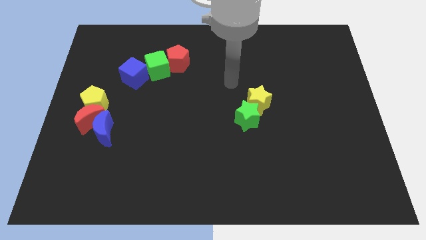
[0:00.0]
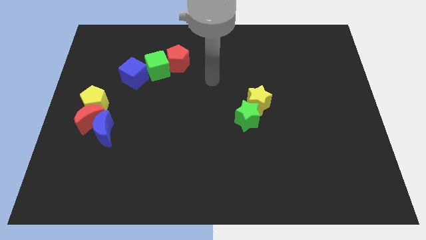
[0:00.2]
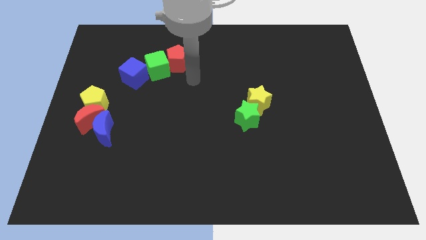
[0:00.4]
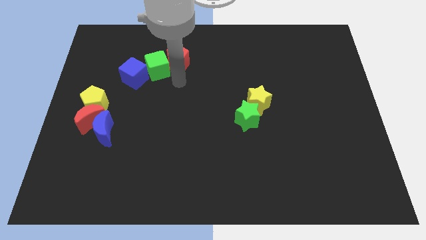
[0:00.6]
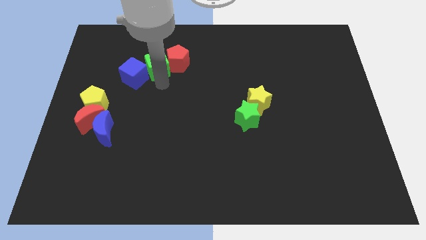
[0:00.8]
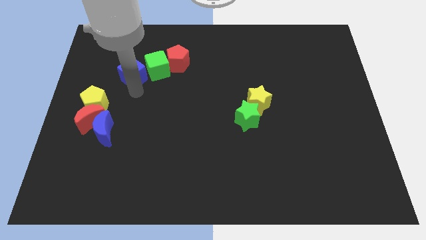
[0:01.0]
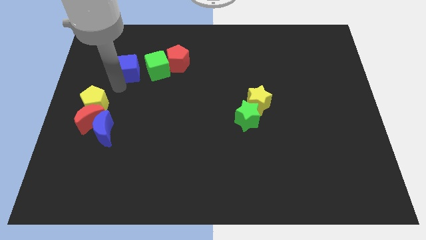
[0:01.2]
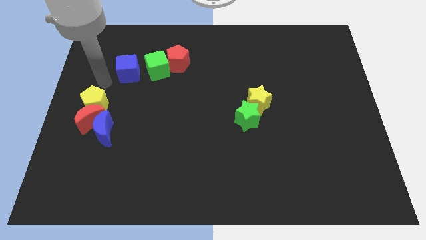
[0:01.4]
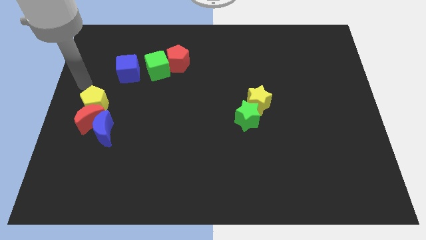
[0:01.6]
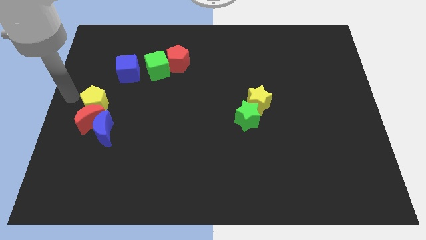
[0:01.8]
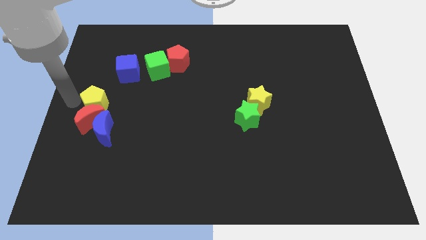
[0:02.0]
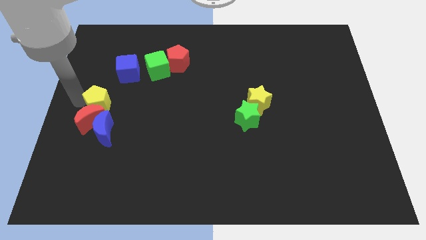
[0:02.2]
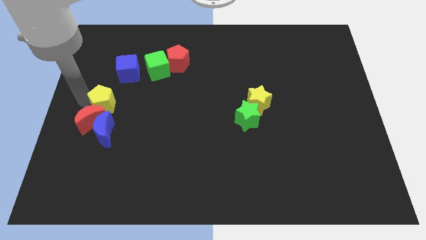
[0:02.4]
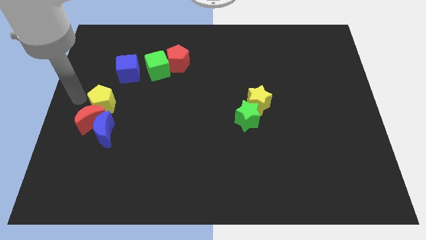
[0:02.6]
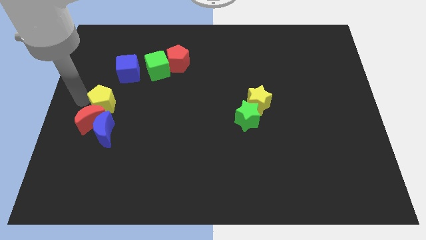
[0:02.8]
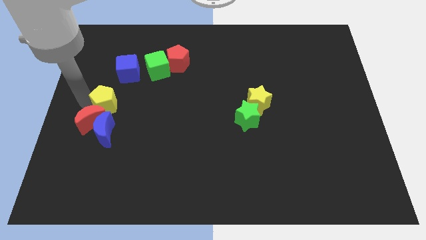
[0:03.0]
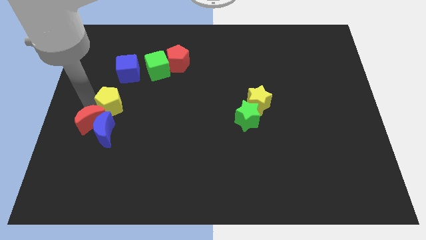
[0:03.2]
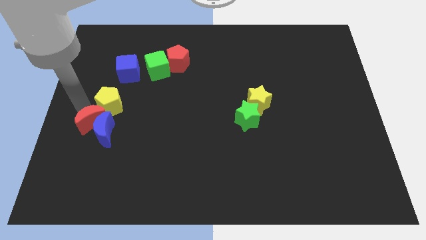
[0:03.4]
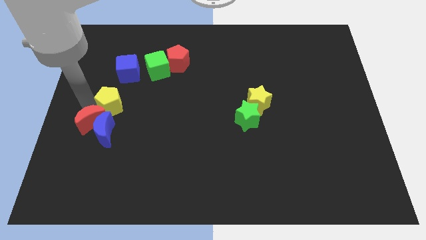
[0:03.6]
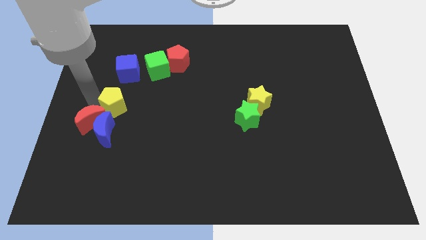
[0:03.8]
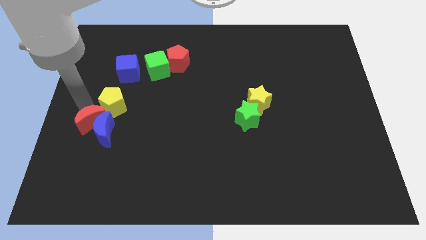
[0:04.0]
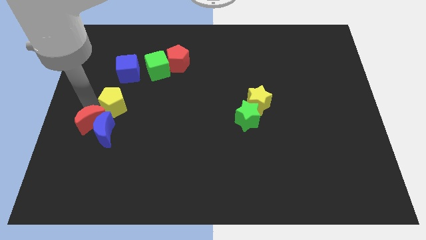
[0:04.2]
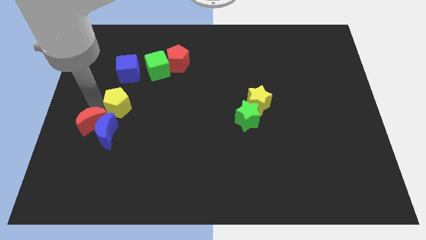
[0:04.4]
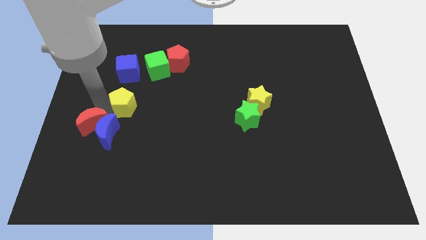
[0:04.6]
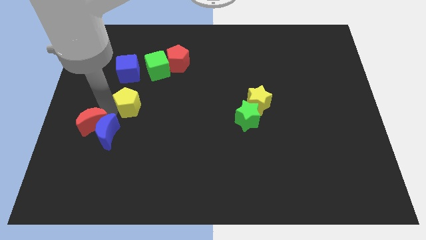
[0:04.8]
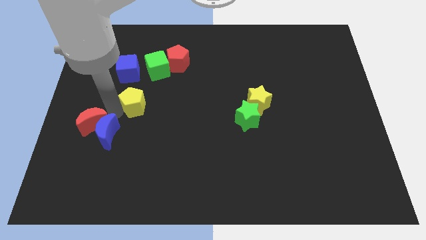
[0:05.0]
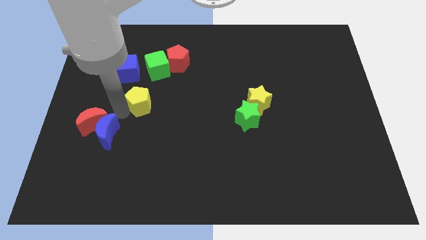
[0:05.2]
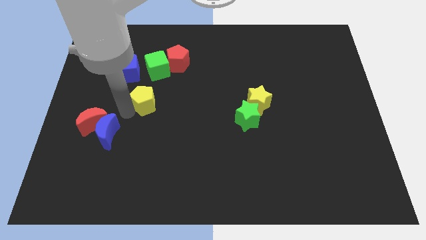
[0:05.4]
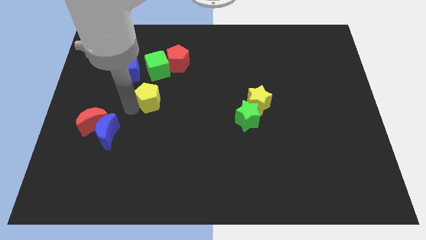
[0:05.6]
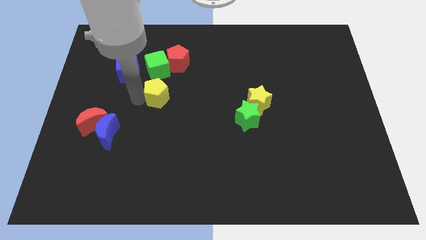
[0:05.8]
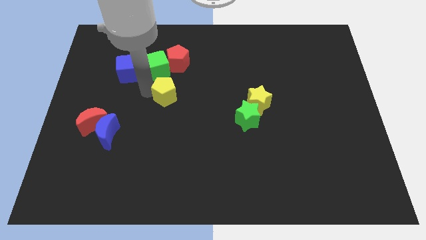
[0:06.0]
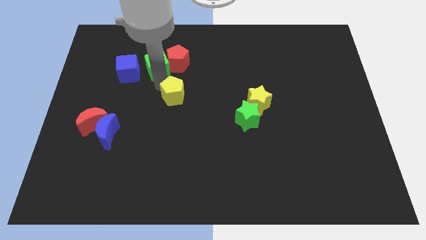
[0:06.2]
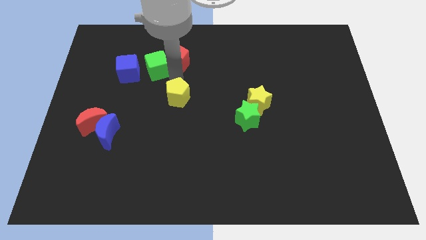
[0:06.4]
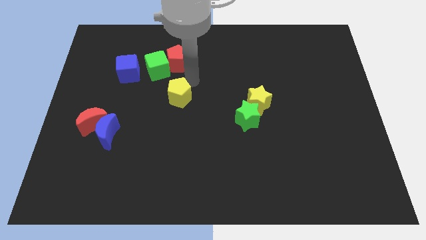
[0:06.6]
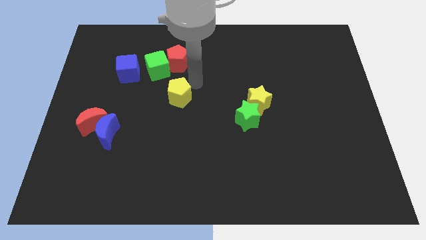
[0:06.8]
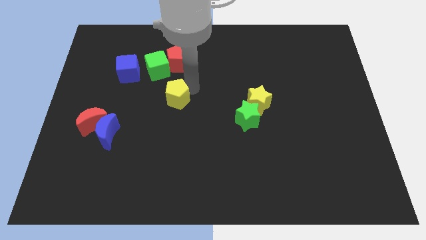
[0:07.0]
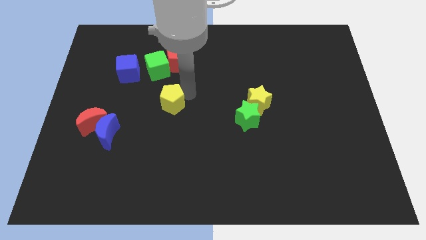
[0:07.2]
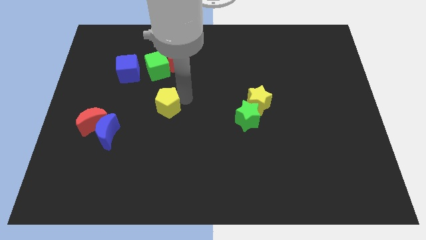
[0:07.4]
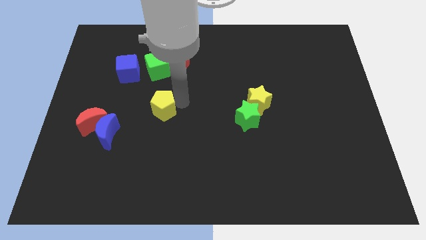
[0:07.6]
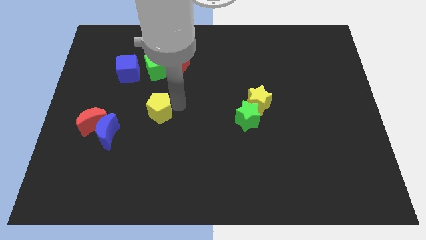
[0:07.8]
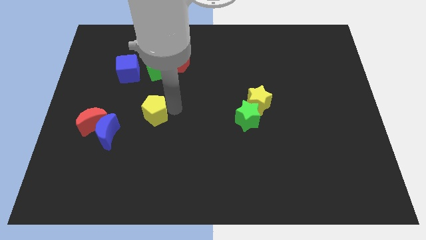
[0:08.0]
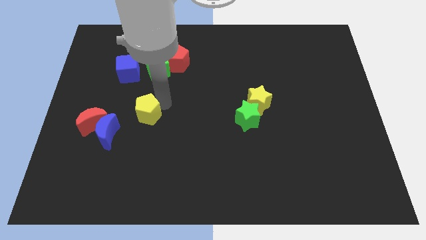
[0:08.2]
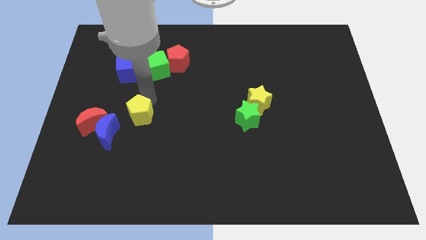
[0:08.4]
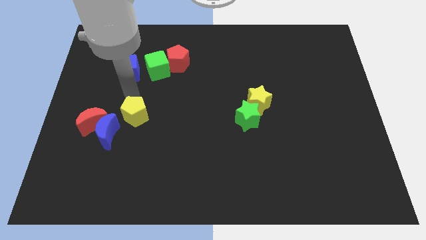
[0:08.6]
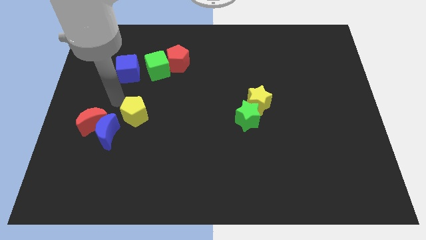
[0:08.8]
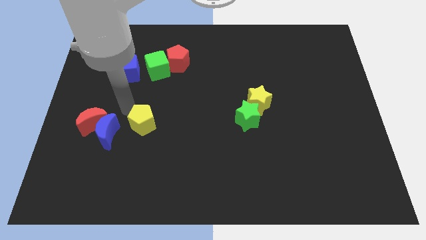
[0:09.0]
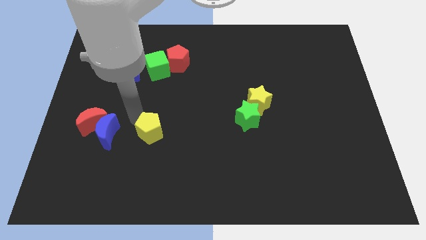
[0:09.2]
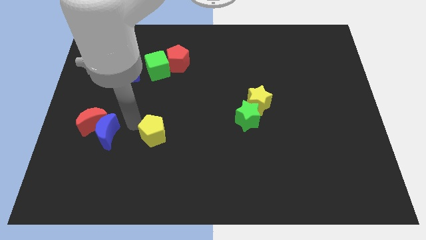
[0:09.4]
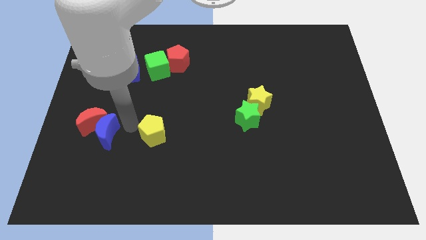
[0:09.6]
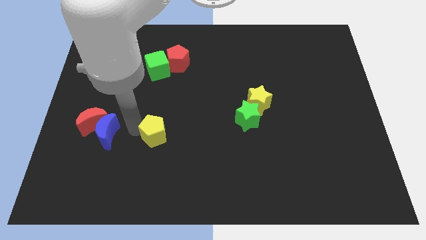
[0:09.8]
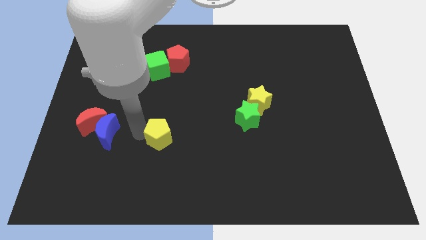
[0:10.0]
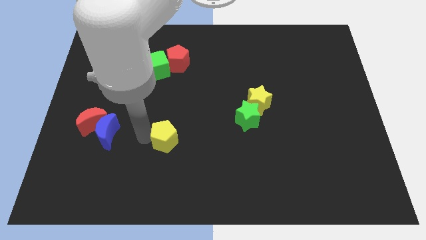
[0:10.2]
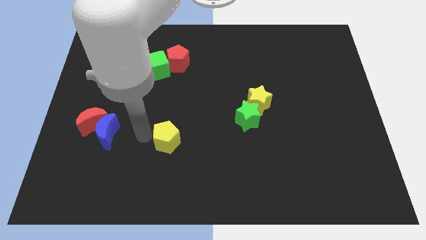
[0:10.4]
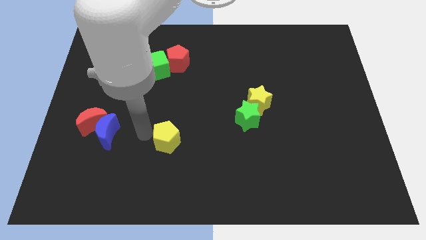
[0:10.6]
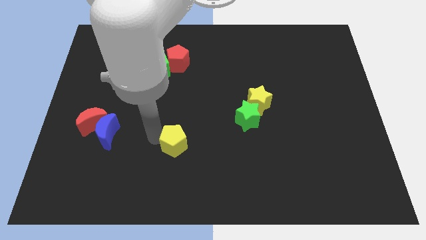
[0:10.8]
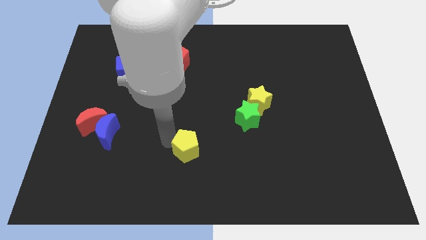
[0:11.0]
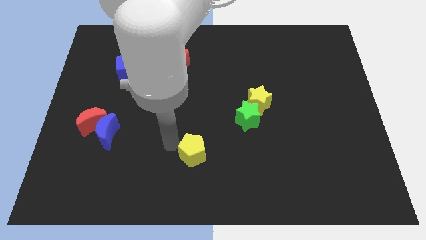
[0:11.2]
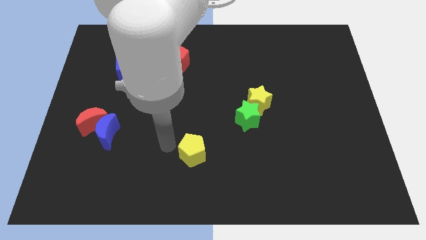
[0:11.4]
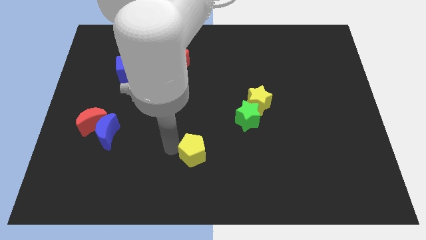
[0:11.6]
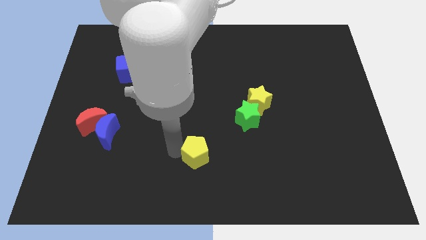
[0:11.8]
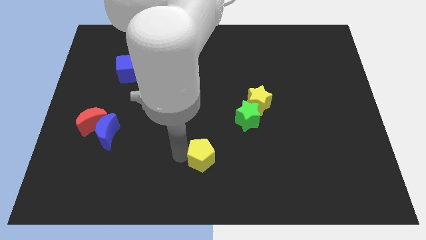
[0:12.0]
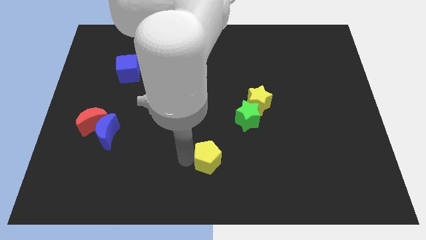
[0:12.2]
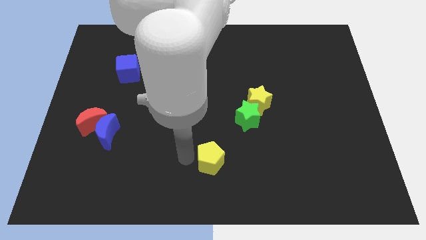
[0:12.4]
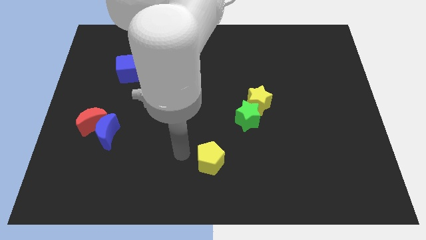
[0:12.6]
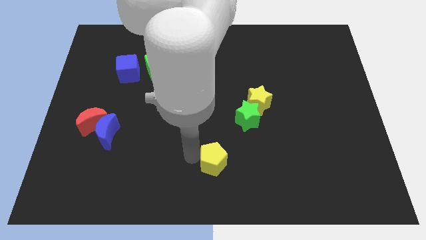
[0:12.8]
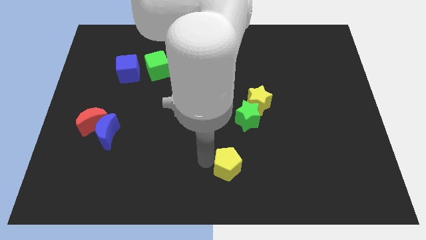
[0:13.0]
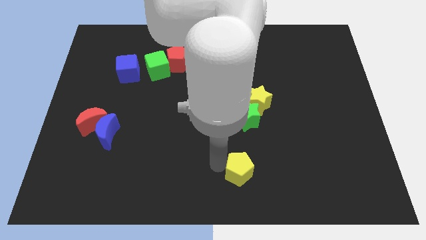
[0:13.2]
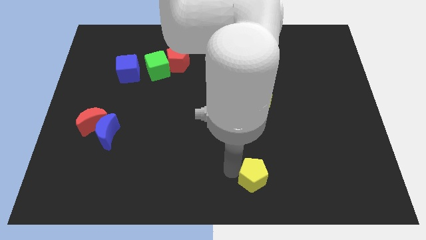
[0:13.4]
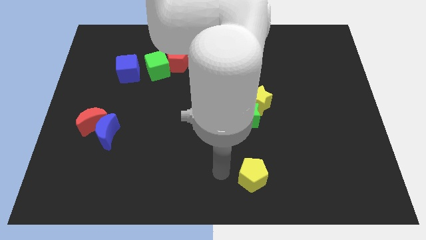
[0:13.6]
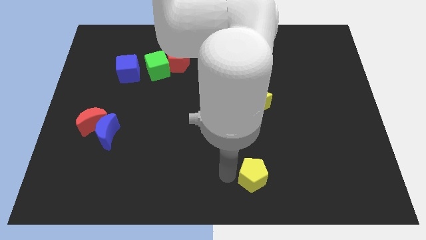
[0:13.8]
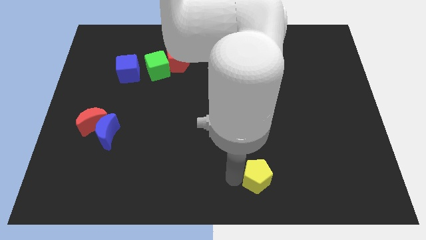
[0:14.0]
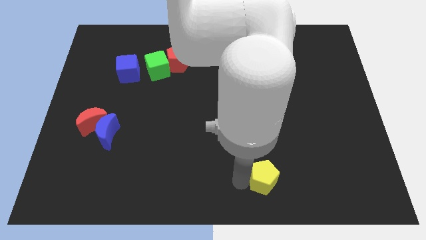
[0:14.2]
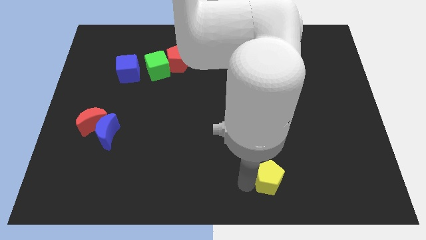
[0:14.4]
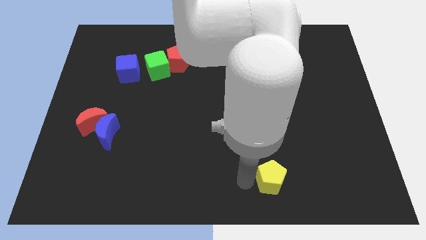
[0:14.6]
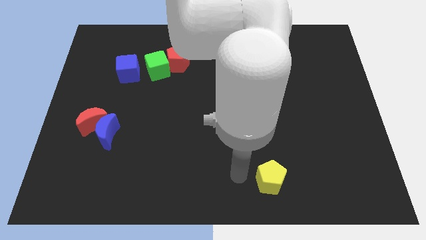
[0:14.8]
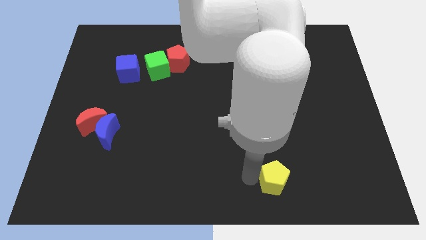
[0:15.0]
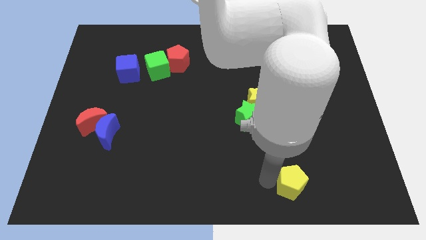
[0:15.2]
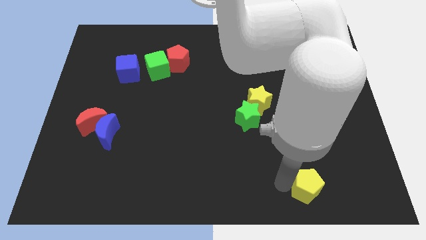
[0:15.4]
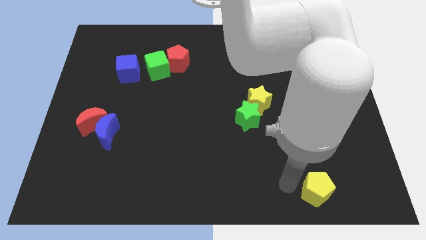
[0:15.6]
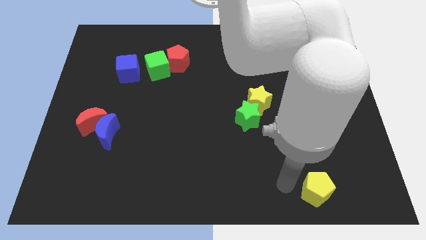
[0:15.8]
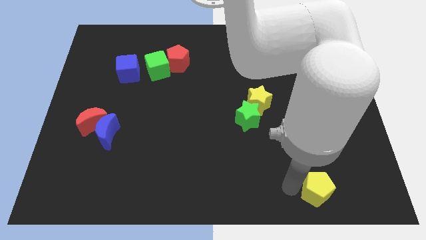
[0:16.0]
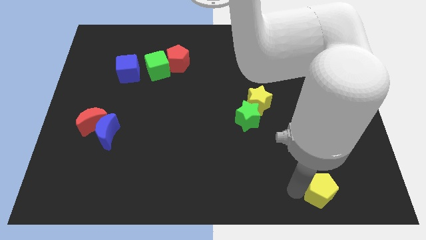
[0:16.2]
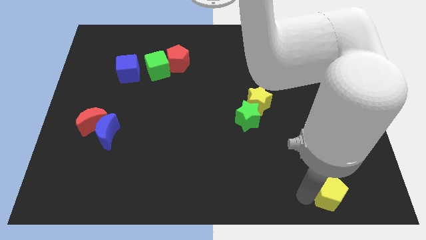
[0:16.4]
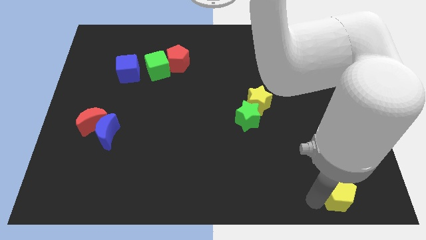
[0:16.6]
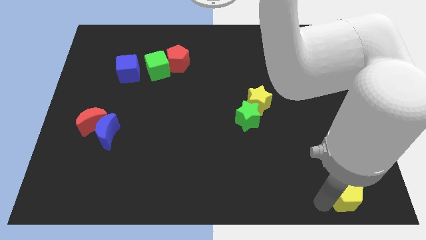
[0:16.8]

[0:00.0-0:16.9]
slide the yellow pentagon to the bottom right corner
